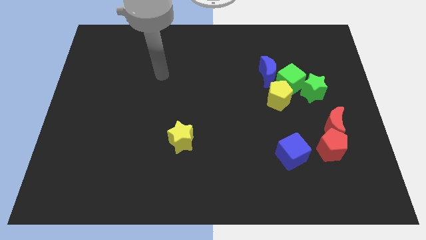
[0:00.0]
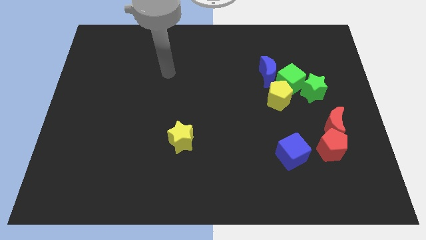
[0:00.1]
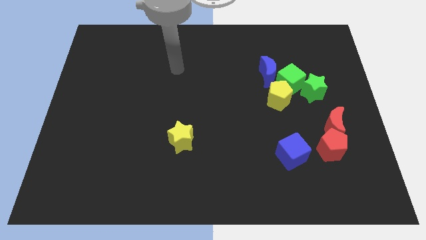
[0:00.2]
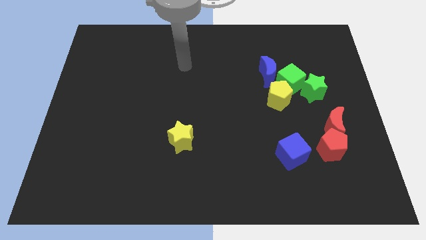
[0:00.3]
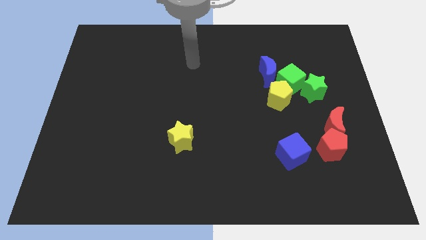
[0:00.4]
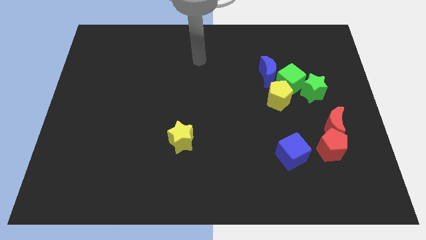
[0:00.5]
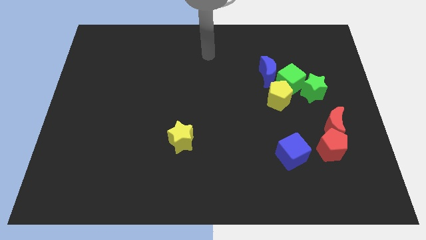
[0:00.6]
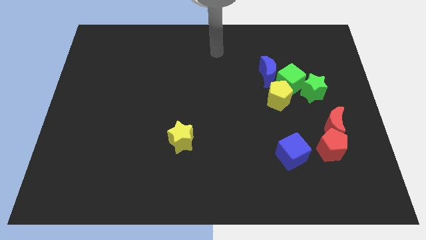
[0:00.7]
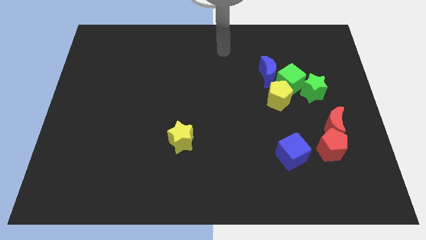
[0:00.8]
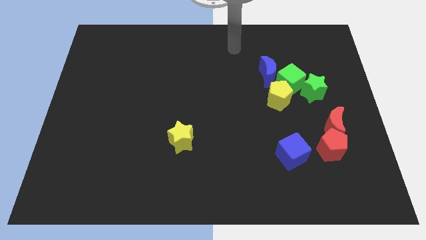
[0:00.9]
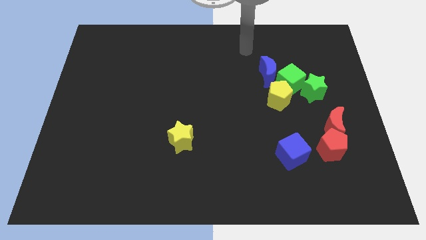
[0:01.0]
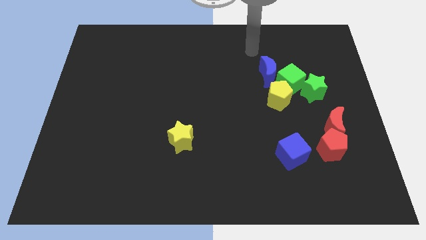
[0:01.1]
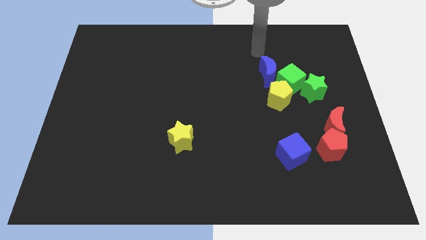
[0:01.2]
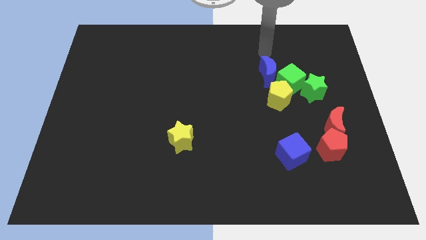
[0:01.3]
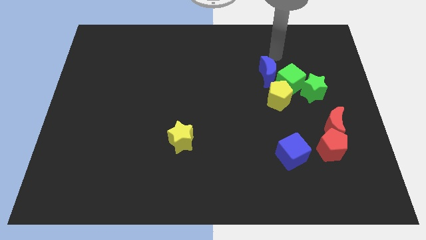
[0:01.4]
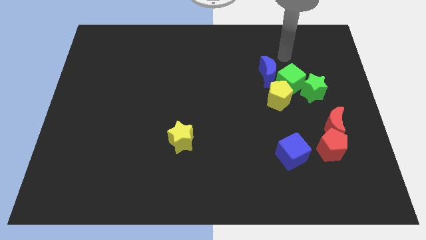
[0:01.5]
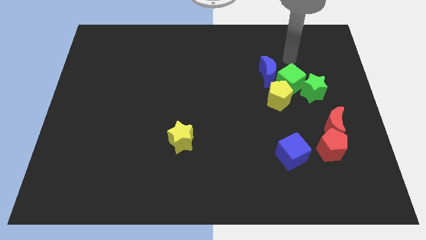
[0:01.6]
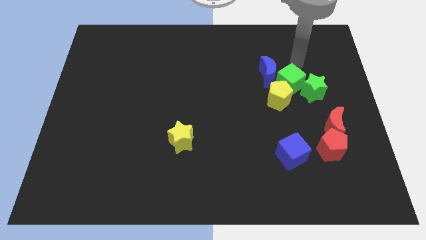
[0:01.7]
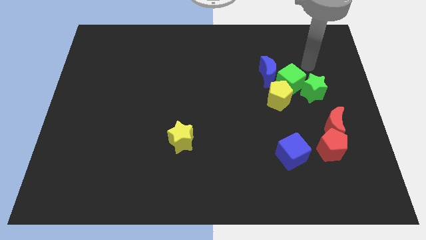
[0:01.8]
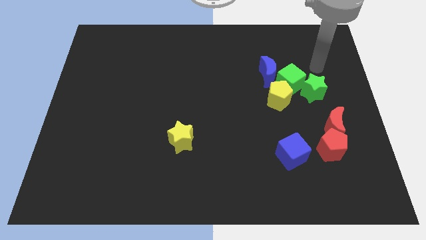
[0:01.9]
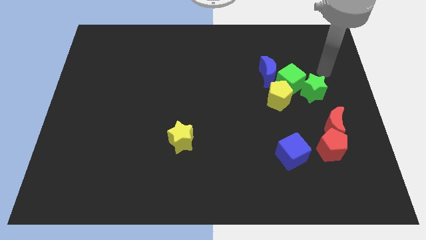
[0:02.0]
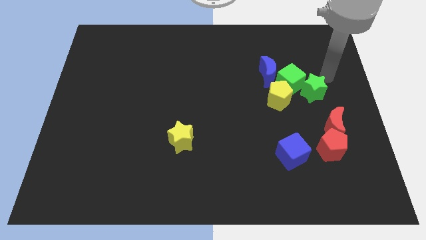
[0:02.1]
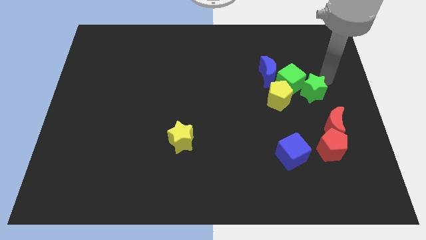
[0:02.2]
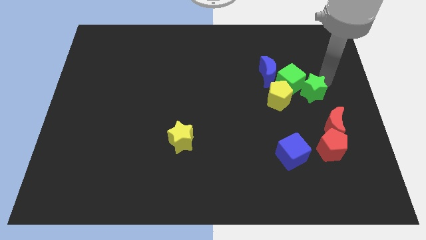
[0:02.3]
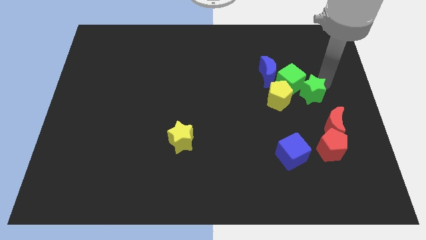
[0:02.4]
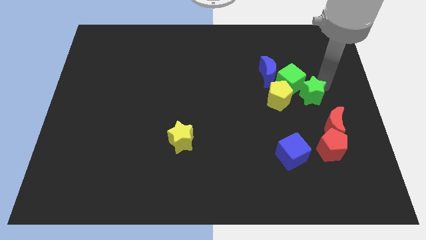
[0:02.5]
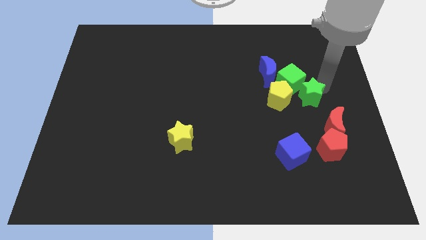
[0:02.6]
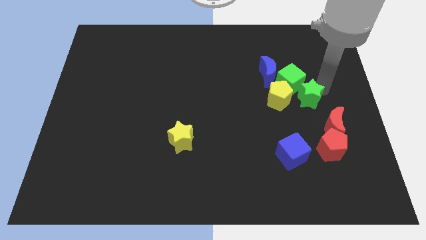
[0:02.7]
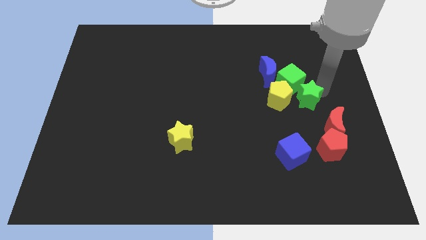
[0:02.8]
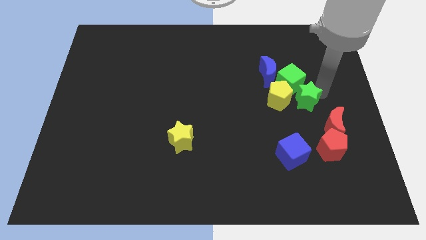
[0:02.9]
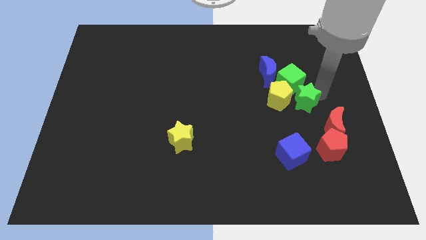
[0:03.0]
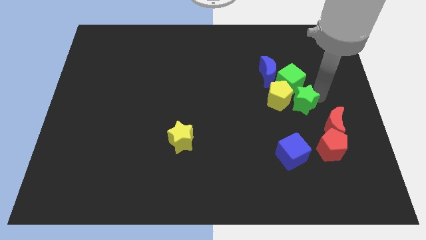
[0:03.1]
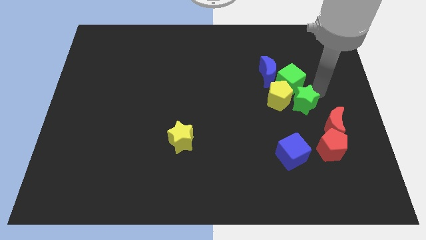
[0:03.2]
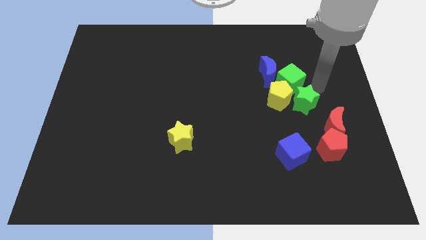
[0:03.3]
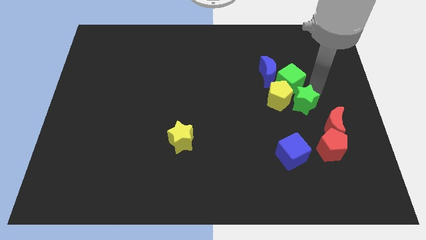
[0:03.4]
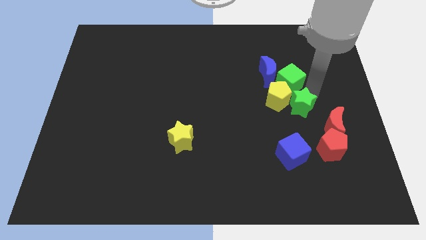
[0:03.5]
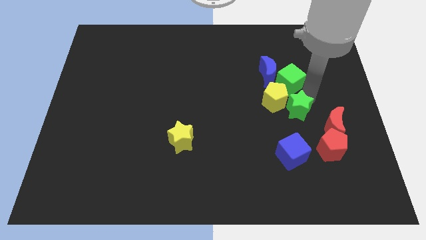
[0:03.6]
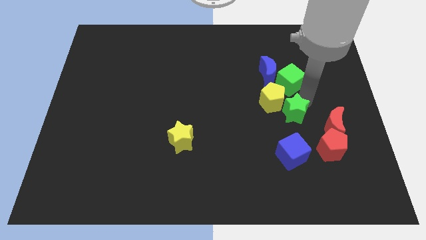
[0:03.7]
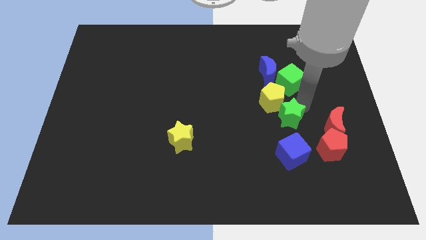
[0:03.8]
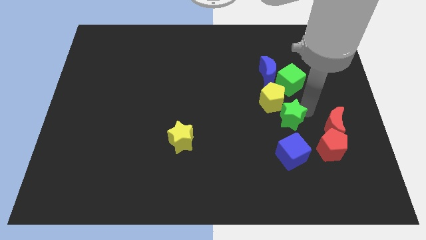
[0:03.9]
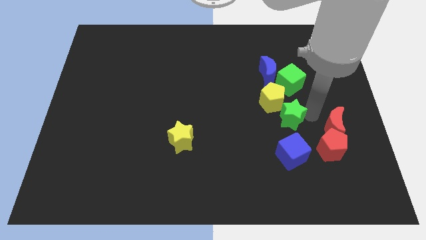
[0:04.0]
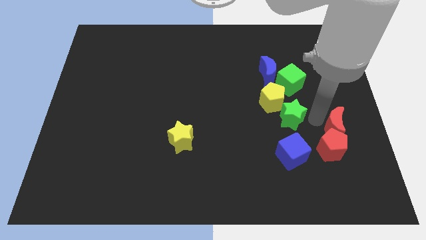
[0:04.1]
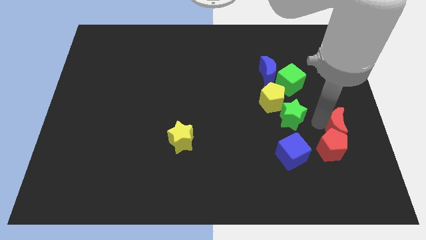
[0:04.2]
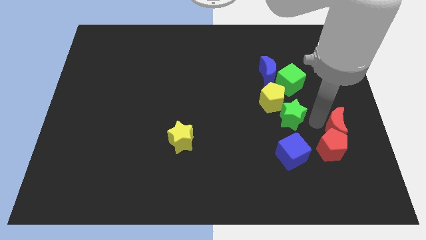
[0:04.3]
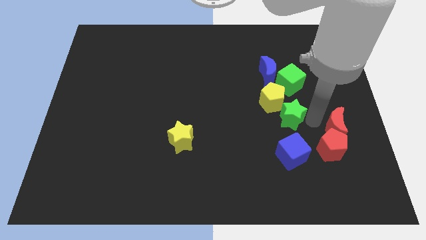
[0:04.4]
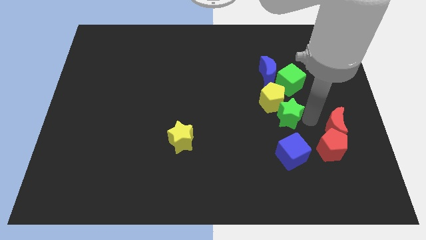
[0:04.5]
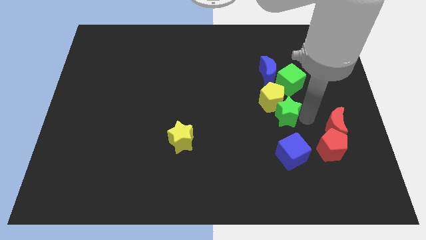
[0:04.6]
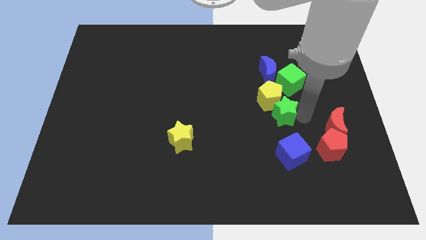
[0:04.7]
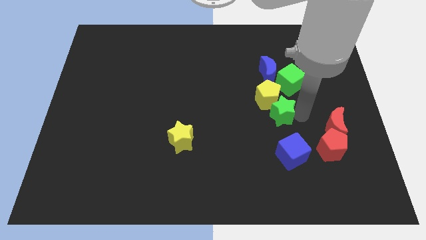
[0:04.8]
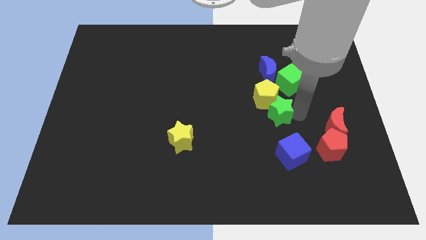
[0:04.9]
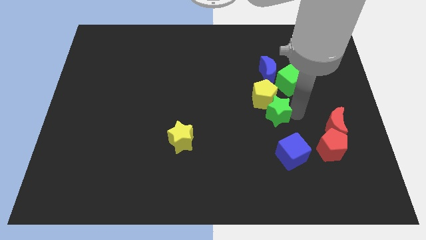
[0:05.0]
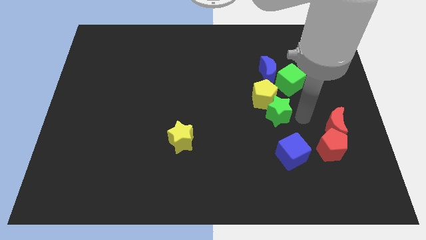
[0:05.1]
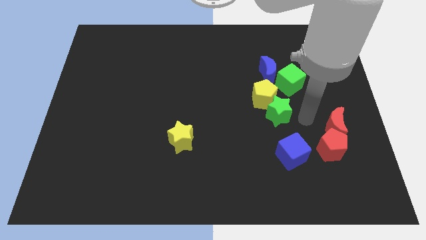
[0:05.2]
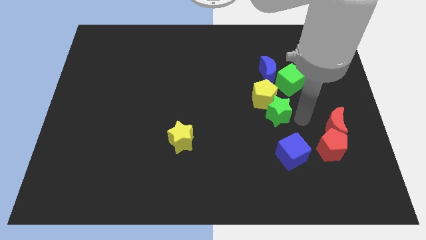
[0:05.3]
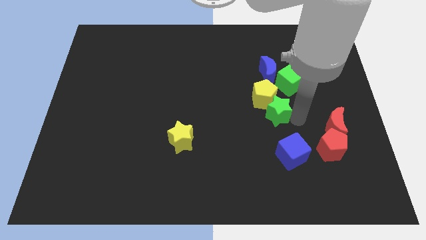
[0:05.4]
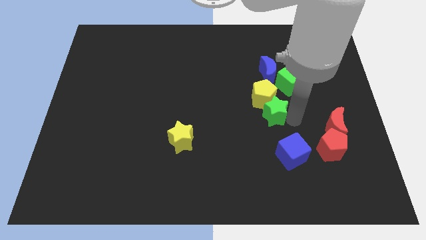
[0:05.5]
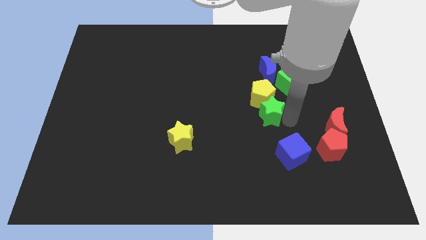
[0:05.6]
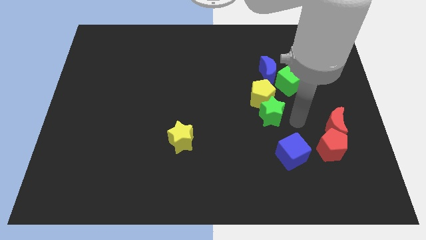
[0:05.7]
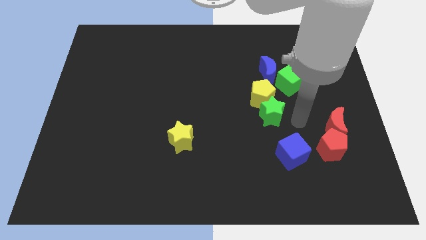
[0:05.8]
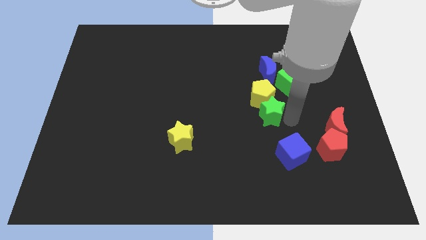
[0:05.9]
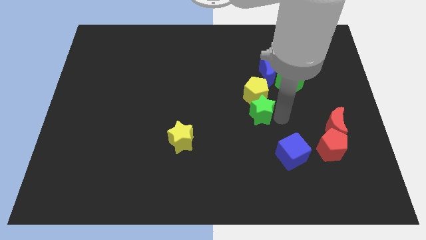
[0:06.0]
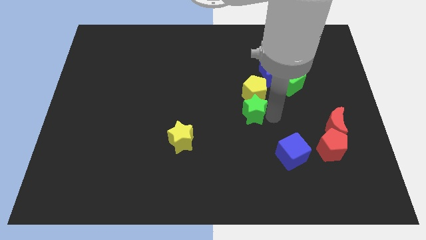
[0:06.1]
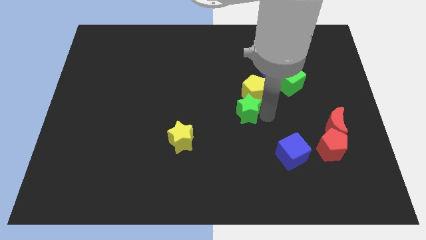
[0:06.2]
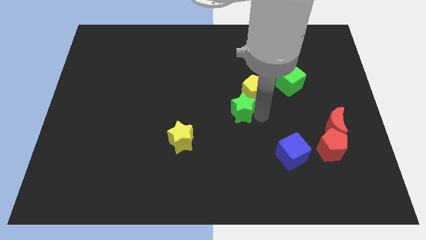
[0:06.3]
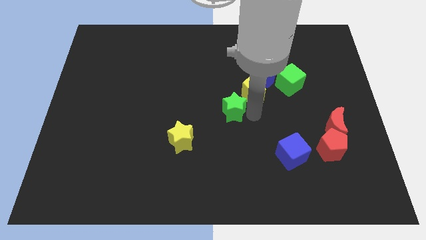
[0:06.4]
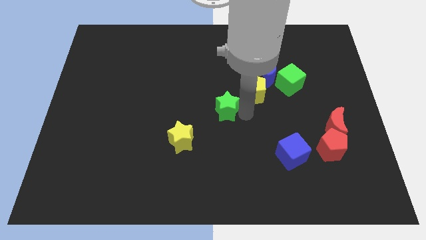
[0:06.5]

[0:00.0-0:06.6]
push the green star to the left

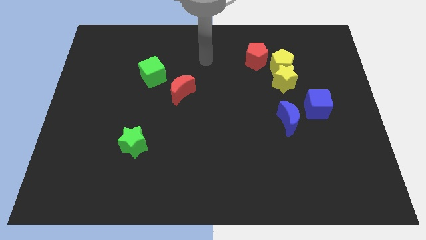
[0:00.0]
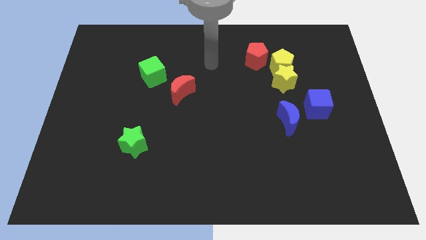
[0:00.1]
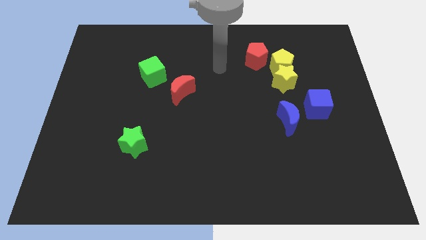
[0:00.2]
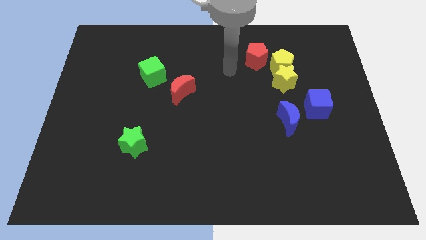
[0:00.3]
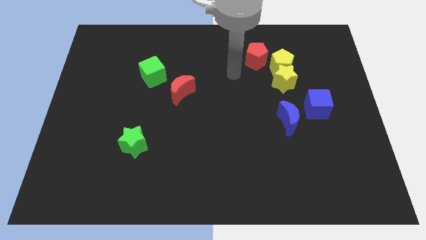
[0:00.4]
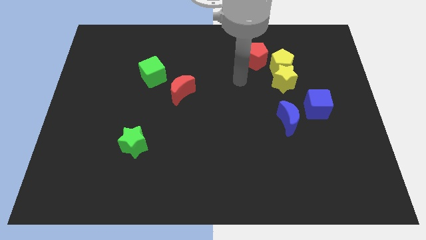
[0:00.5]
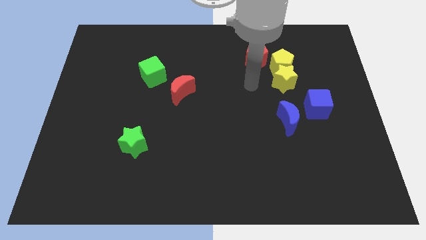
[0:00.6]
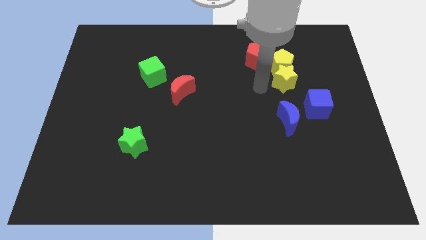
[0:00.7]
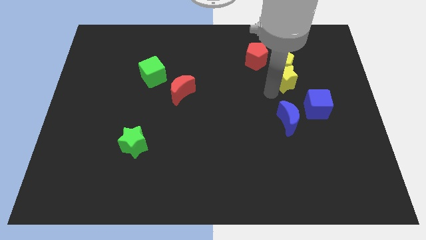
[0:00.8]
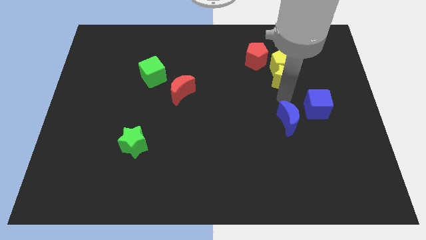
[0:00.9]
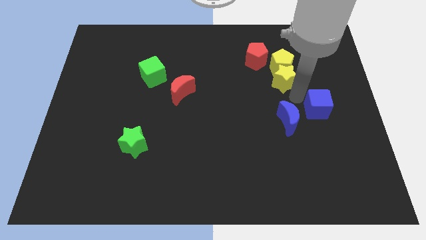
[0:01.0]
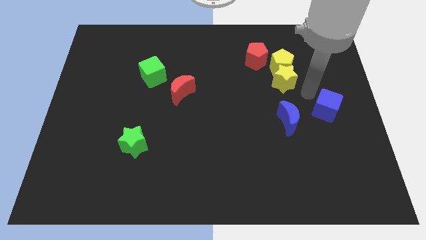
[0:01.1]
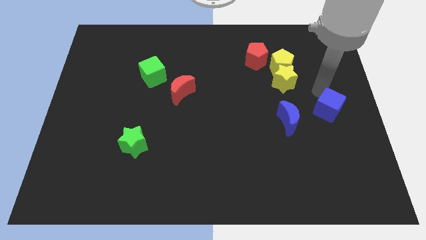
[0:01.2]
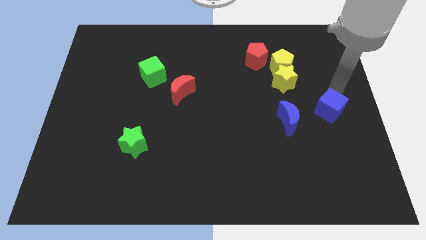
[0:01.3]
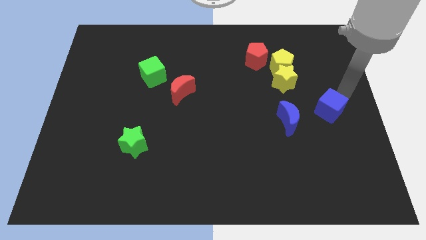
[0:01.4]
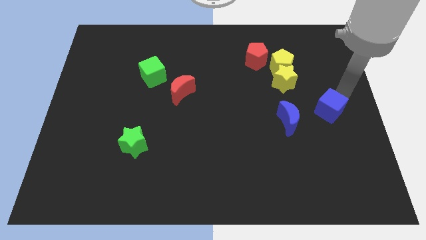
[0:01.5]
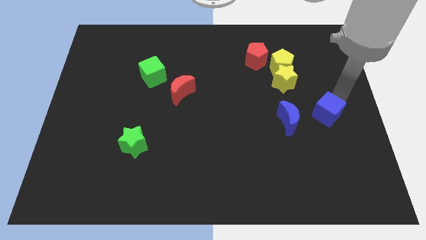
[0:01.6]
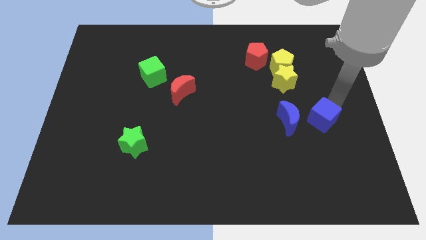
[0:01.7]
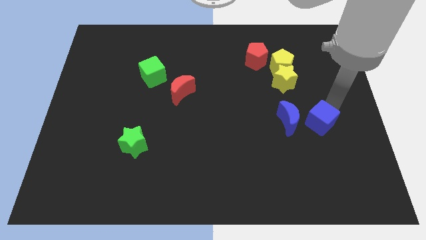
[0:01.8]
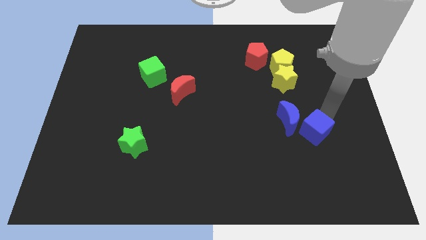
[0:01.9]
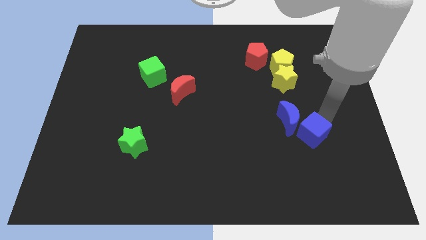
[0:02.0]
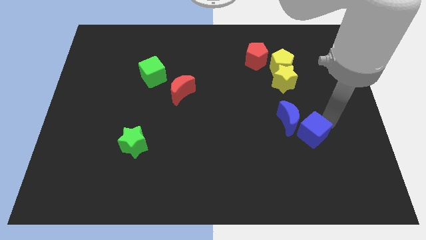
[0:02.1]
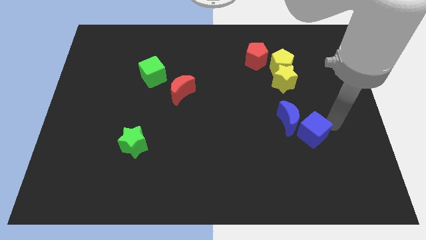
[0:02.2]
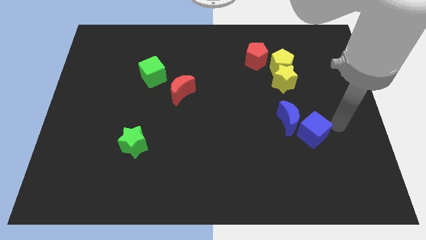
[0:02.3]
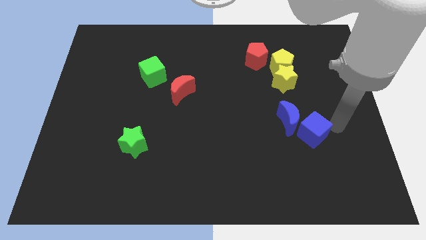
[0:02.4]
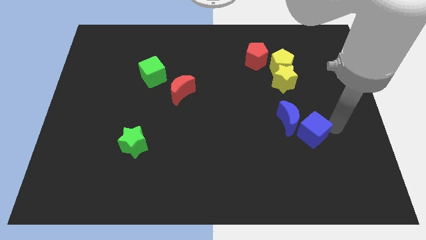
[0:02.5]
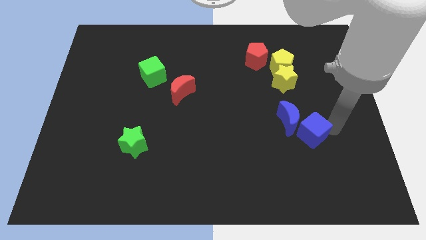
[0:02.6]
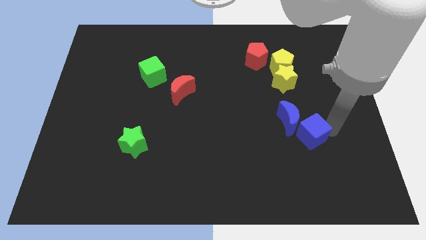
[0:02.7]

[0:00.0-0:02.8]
slide the blue cube a little down and left diagonally
